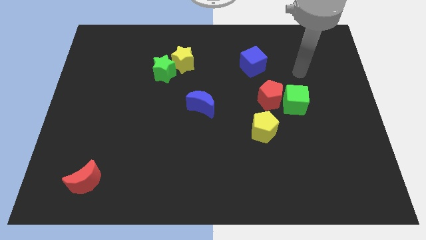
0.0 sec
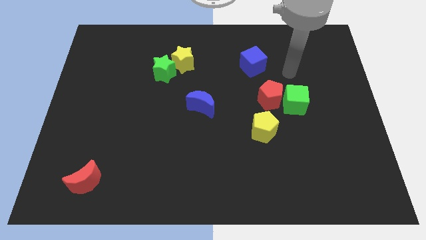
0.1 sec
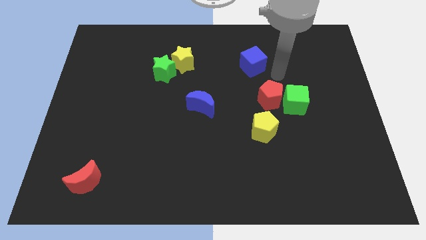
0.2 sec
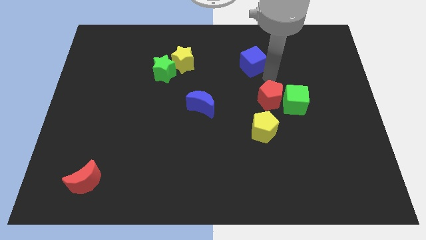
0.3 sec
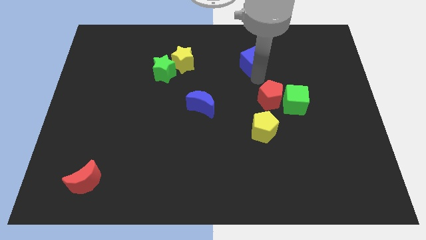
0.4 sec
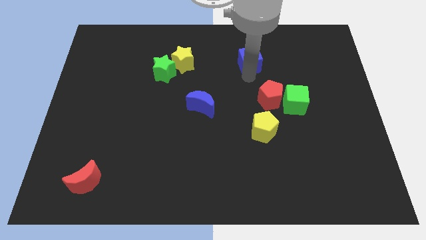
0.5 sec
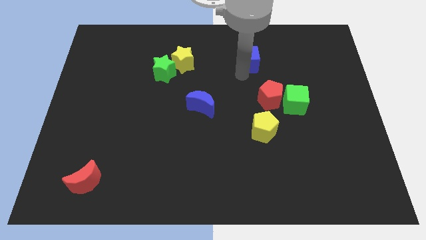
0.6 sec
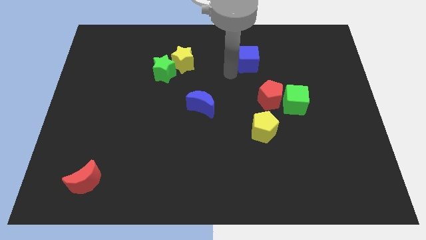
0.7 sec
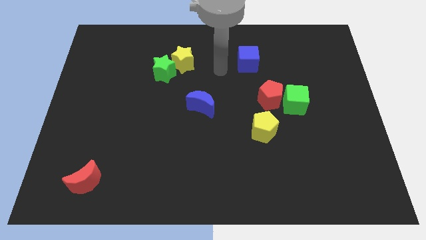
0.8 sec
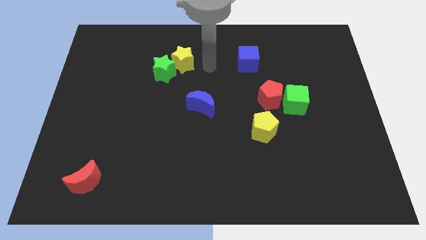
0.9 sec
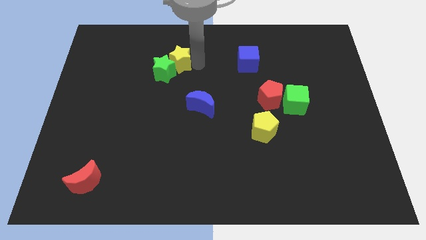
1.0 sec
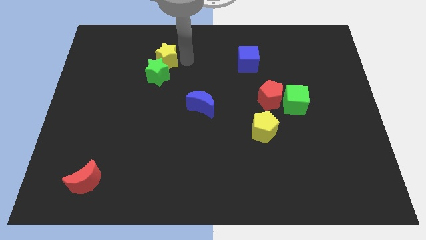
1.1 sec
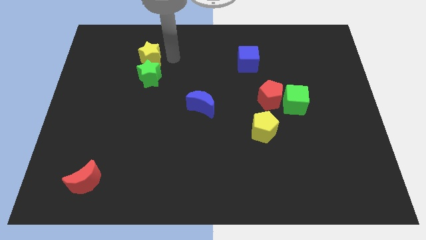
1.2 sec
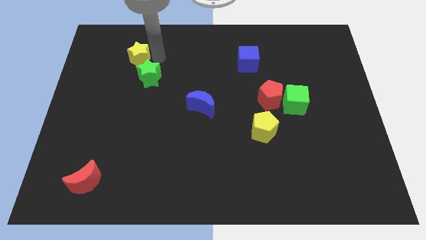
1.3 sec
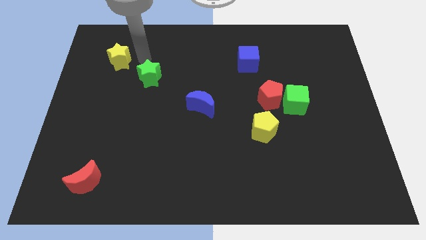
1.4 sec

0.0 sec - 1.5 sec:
pull the green star apart from the yellow star

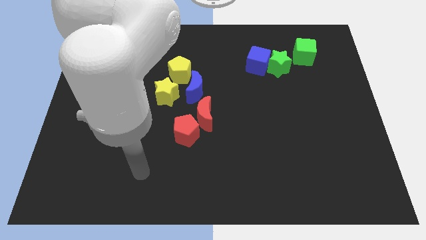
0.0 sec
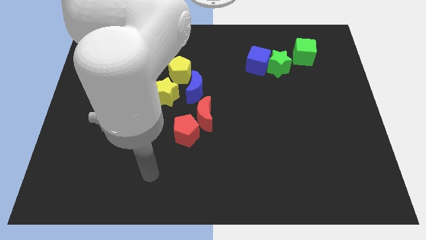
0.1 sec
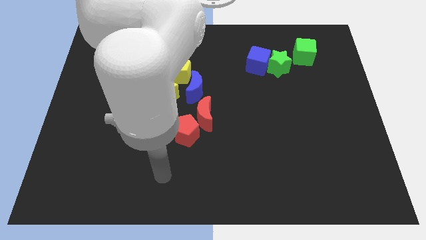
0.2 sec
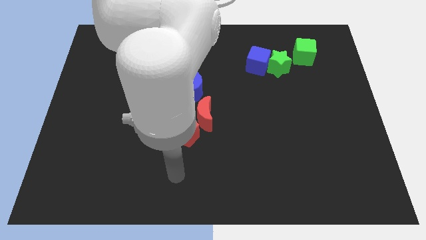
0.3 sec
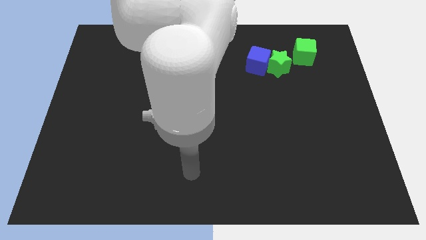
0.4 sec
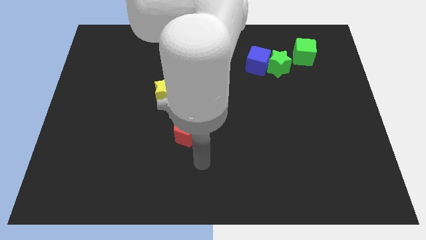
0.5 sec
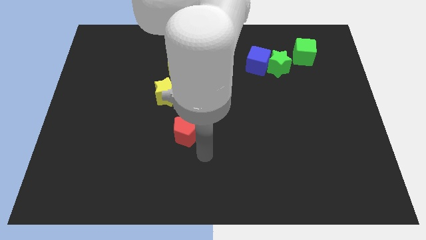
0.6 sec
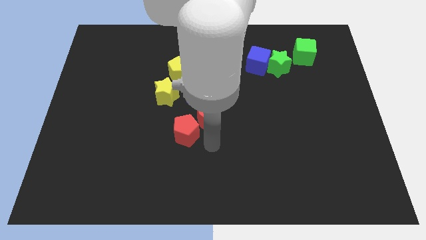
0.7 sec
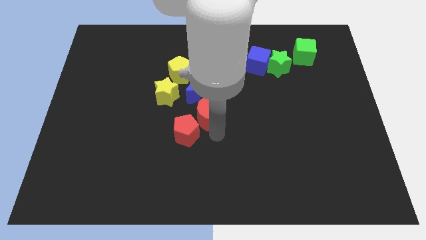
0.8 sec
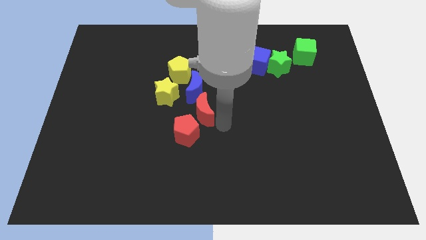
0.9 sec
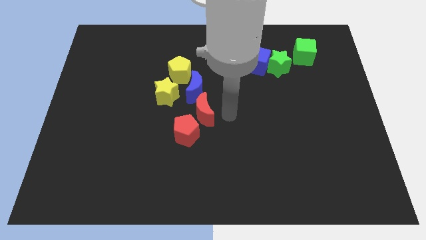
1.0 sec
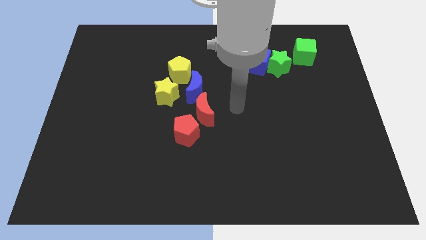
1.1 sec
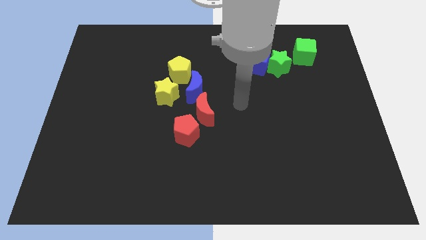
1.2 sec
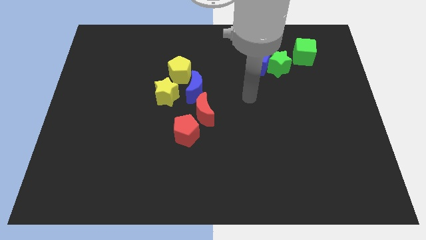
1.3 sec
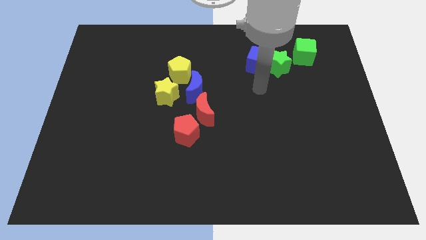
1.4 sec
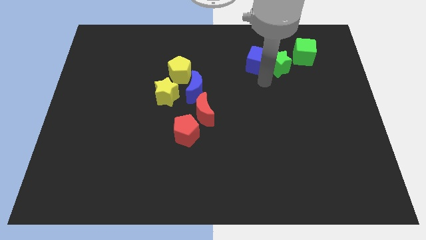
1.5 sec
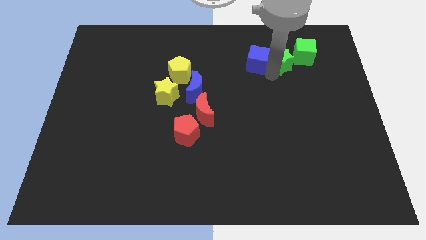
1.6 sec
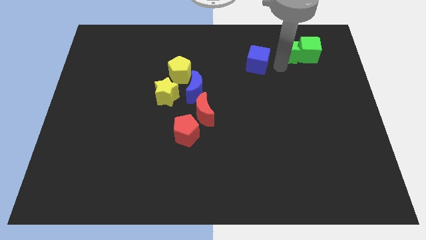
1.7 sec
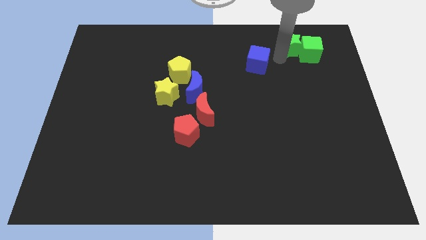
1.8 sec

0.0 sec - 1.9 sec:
pull the blue cube apart from the green star

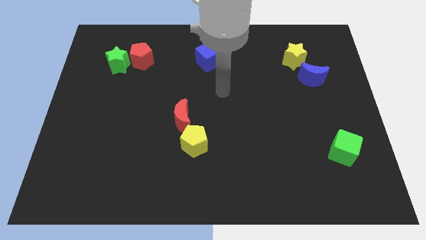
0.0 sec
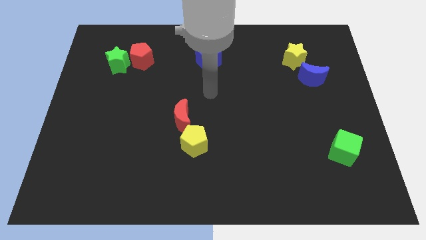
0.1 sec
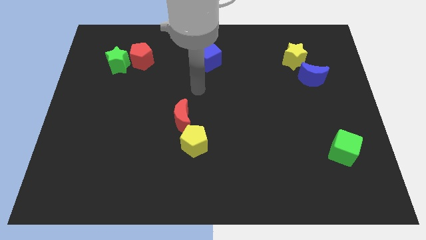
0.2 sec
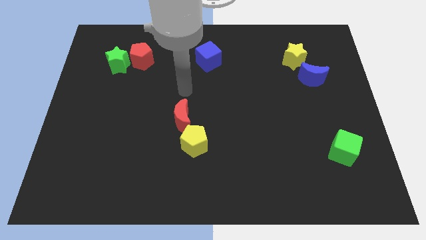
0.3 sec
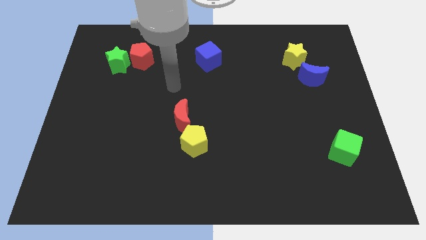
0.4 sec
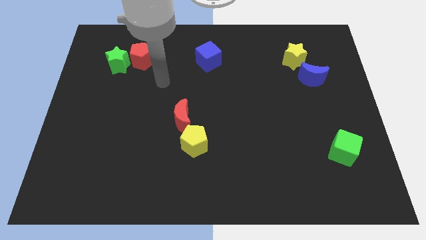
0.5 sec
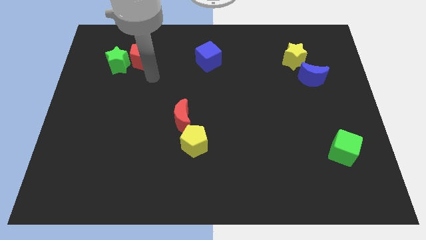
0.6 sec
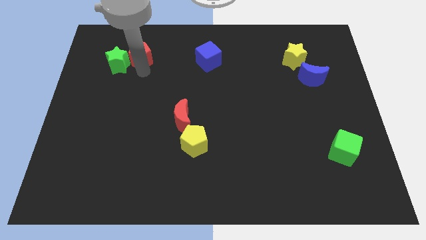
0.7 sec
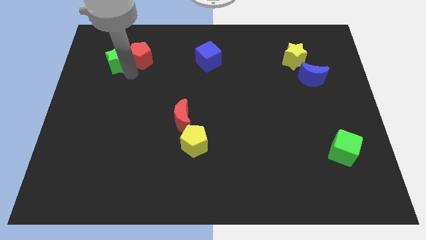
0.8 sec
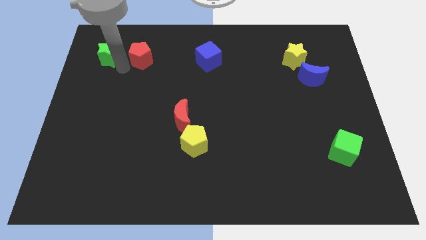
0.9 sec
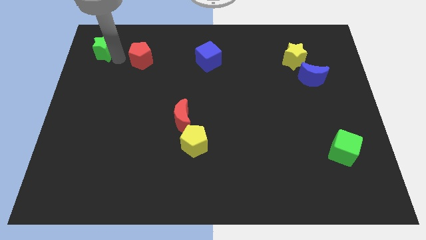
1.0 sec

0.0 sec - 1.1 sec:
separate the red pentagon from the green star

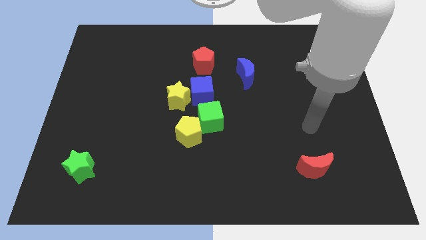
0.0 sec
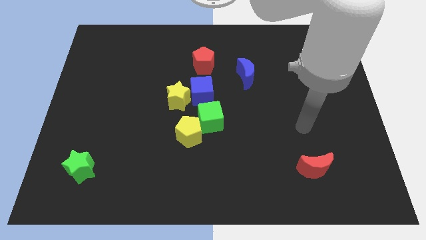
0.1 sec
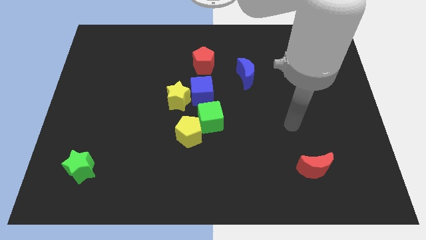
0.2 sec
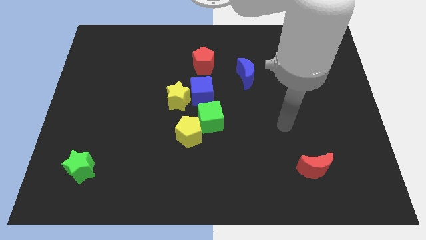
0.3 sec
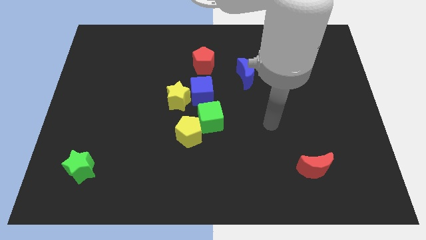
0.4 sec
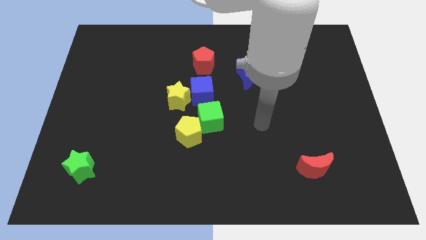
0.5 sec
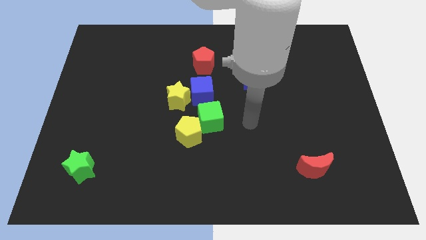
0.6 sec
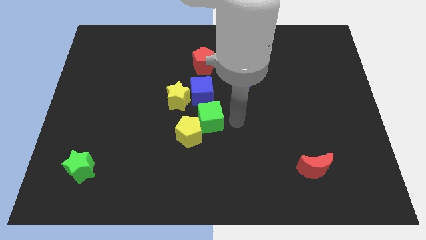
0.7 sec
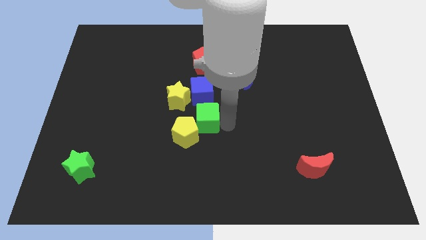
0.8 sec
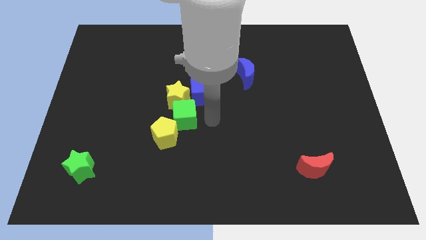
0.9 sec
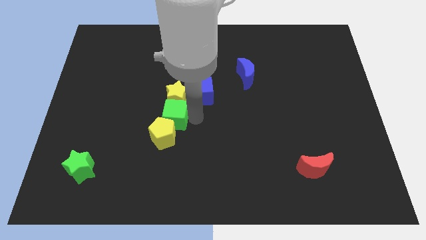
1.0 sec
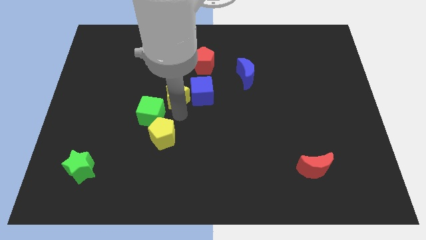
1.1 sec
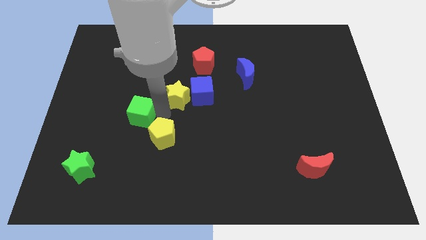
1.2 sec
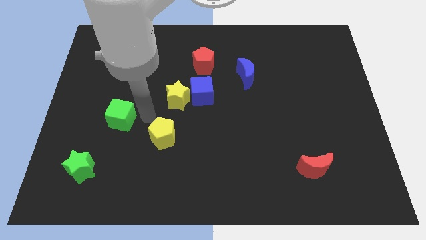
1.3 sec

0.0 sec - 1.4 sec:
separate the yellow pentagon from the green cube

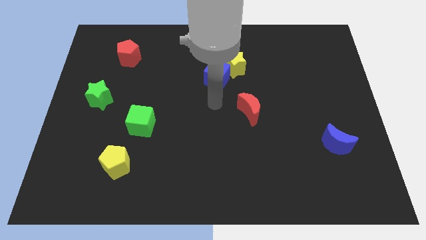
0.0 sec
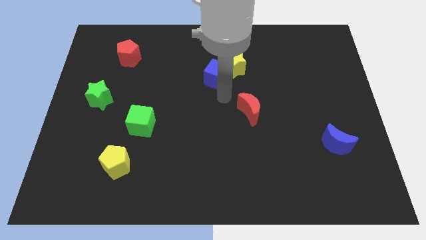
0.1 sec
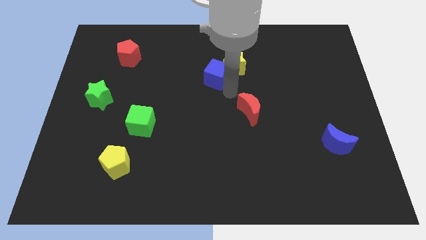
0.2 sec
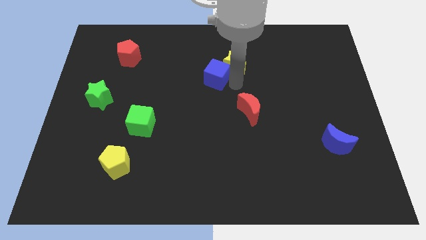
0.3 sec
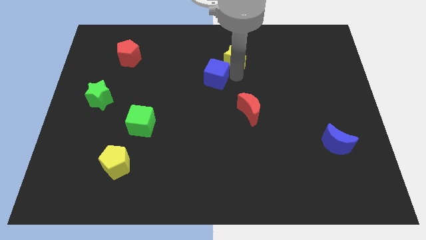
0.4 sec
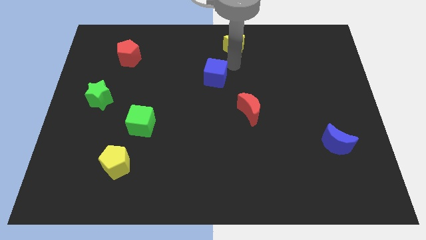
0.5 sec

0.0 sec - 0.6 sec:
move the blue cube away from the yellow star

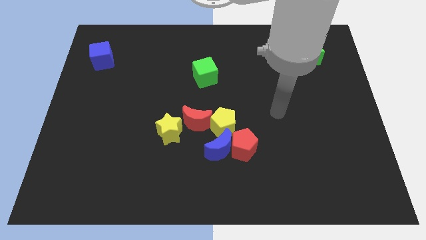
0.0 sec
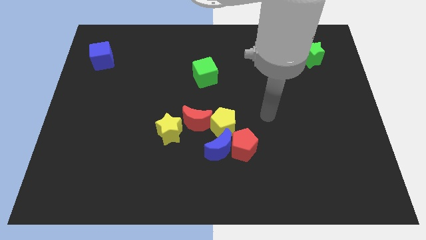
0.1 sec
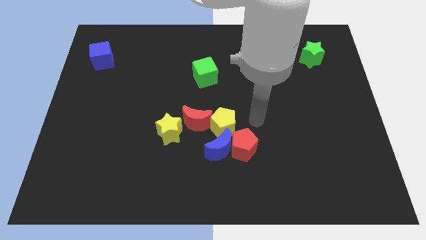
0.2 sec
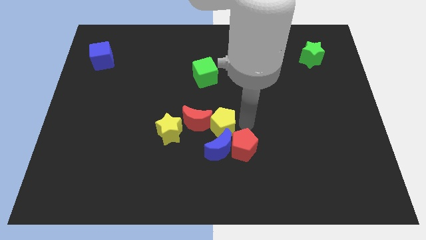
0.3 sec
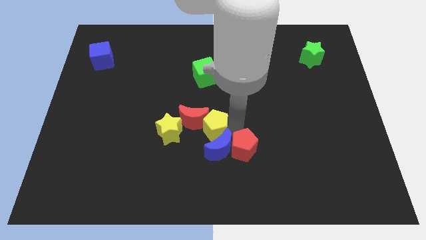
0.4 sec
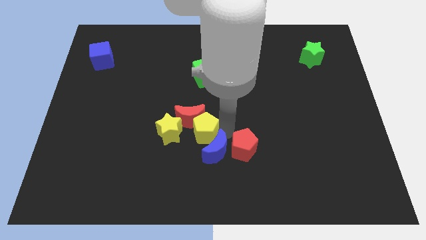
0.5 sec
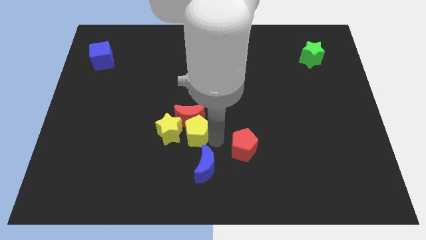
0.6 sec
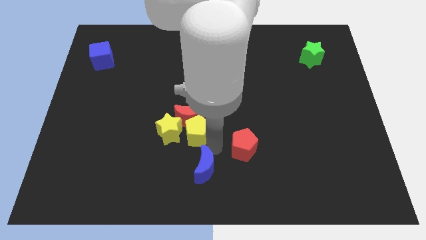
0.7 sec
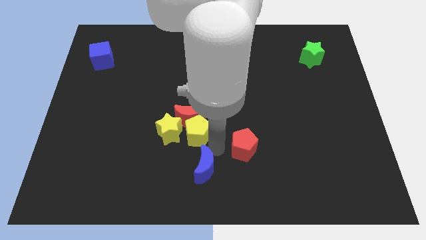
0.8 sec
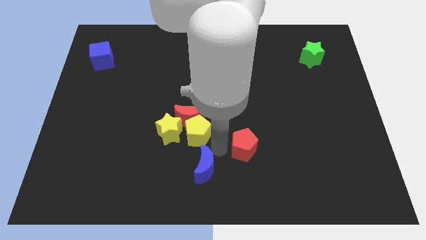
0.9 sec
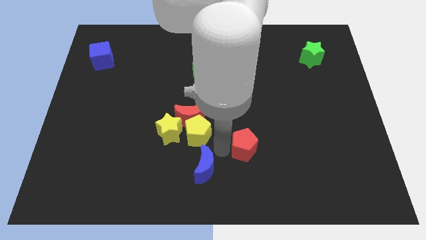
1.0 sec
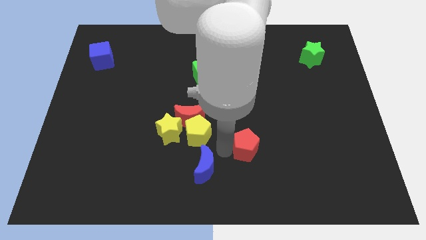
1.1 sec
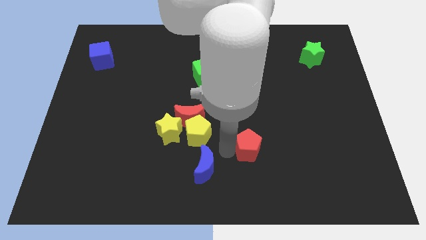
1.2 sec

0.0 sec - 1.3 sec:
pull the red pentagon apart from the blue moon and yellow pentagon

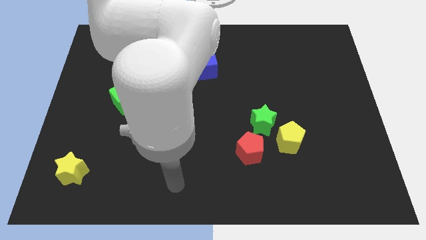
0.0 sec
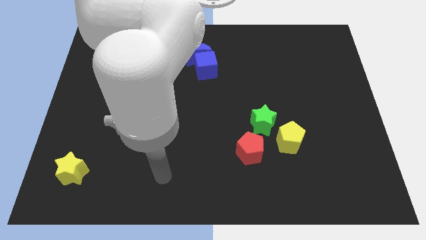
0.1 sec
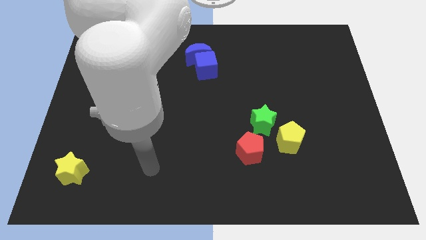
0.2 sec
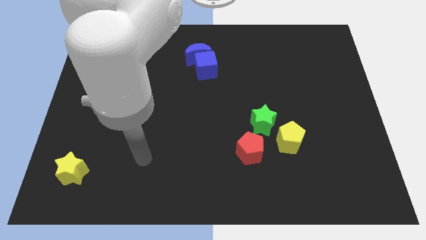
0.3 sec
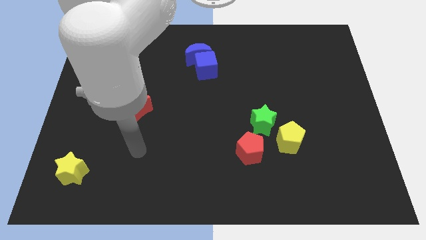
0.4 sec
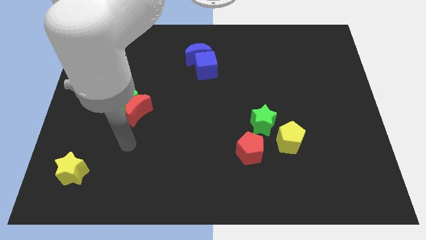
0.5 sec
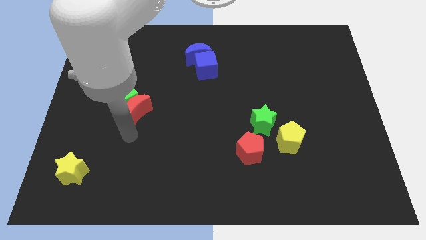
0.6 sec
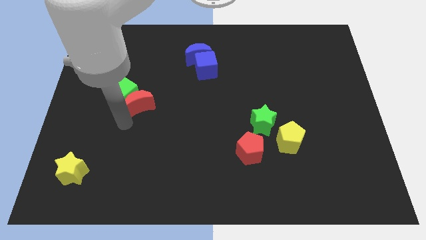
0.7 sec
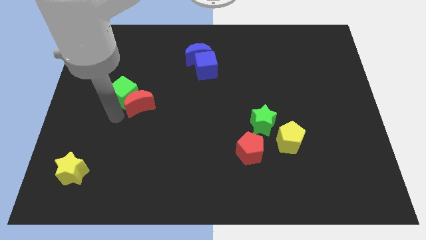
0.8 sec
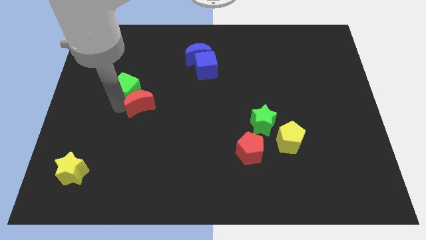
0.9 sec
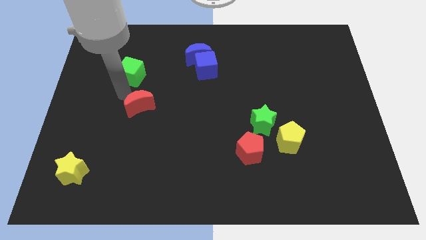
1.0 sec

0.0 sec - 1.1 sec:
move the red moon away from the green cube

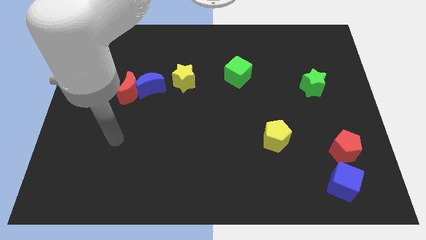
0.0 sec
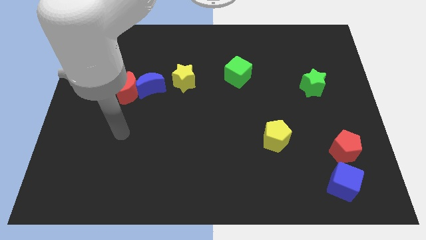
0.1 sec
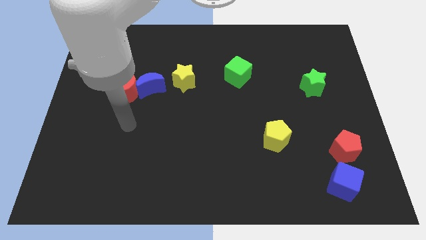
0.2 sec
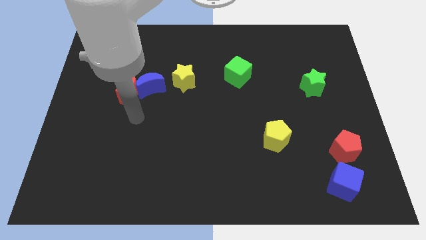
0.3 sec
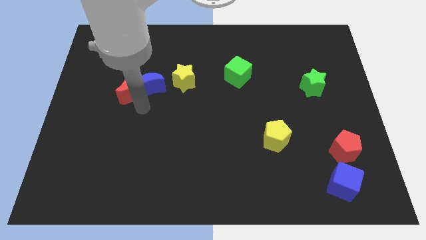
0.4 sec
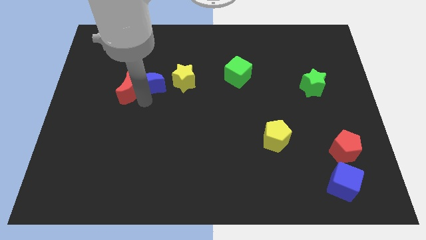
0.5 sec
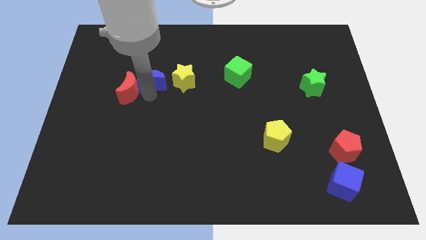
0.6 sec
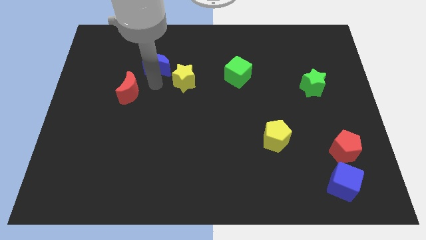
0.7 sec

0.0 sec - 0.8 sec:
move the red moon away from the blue moon
